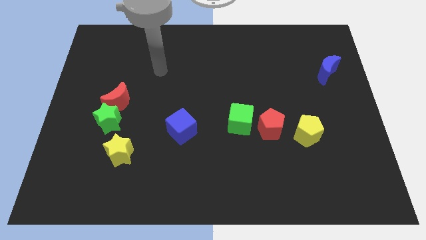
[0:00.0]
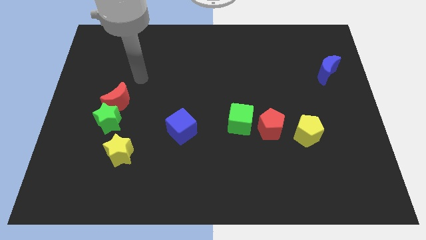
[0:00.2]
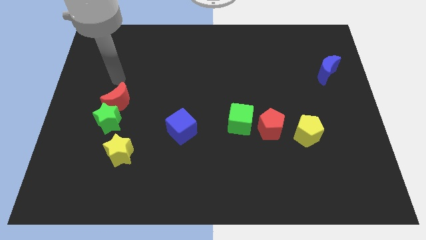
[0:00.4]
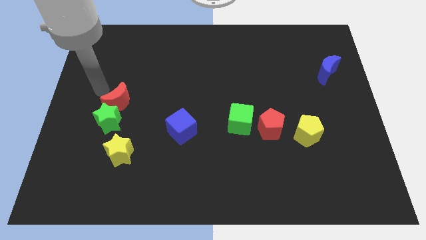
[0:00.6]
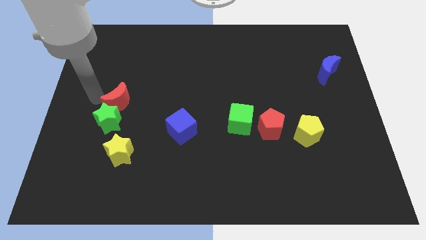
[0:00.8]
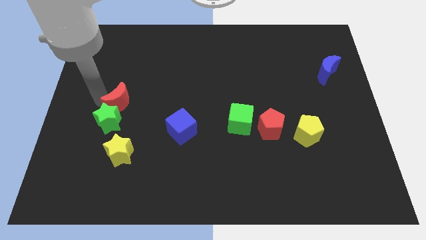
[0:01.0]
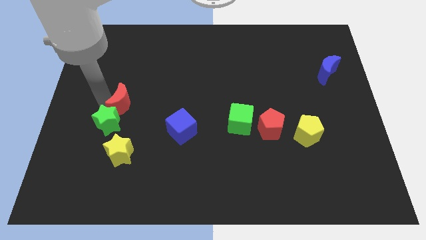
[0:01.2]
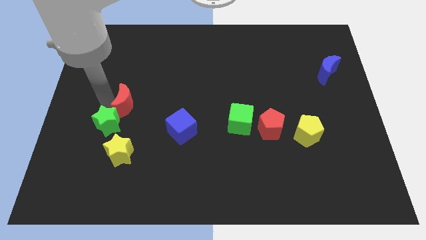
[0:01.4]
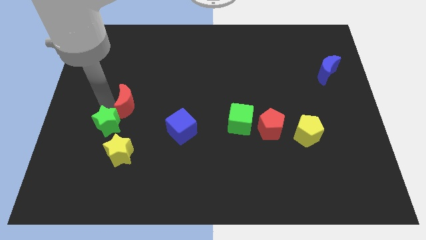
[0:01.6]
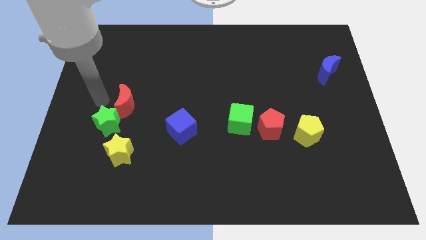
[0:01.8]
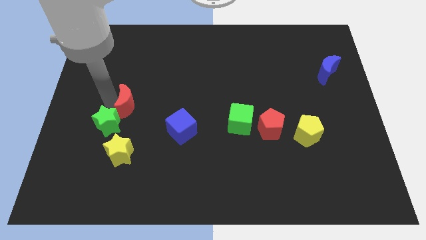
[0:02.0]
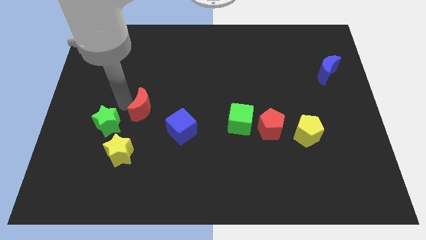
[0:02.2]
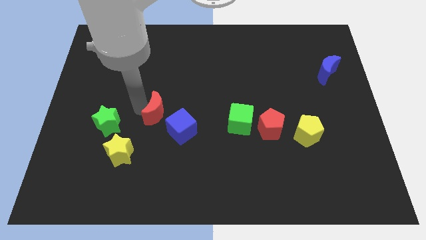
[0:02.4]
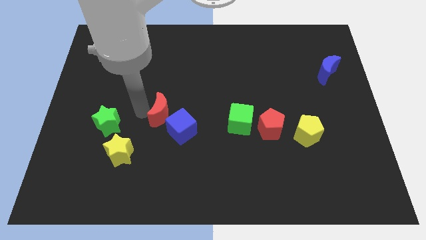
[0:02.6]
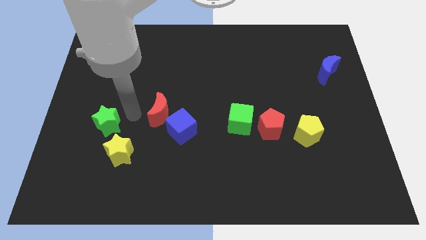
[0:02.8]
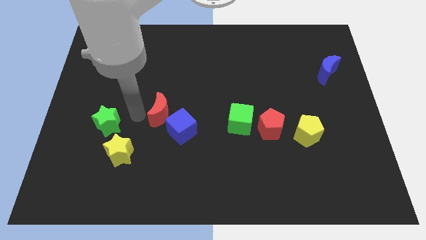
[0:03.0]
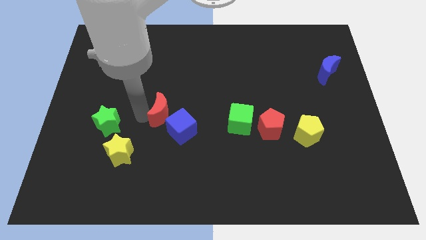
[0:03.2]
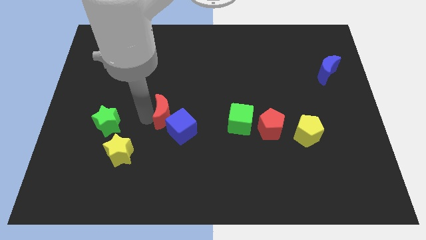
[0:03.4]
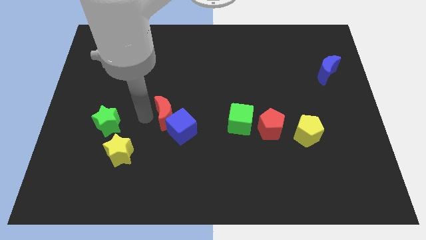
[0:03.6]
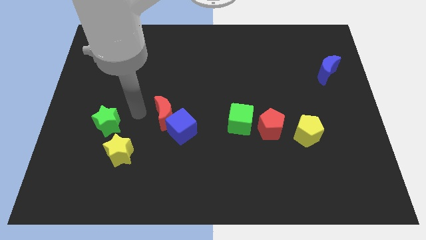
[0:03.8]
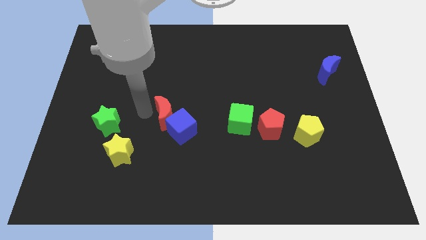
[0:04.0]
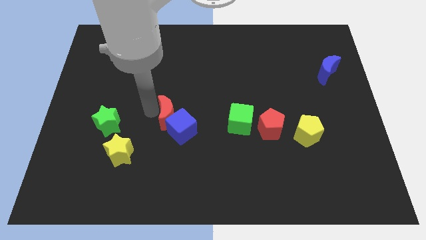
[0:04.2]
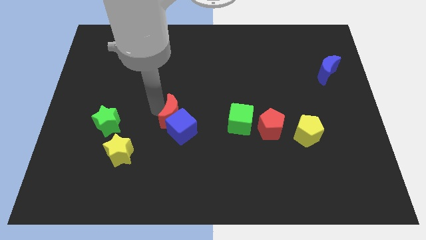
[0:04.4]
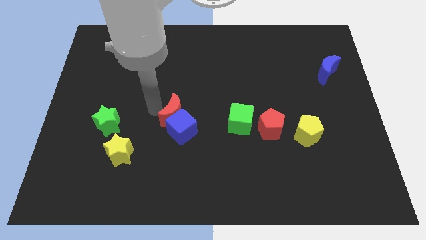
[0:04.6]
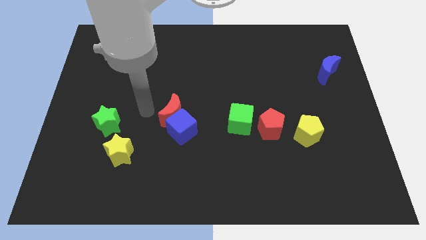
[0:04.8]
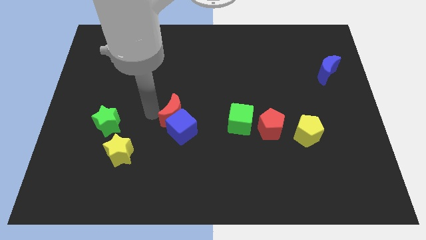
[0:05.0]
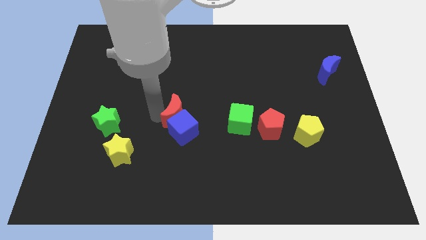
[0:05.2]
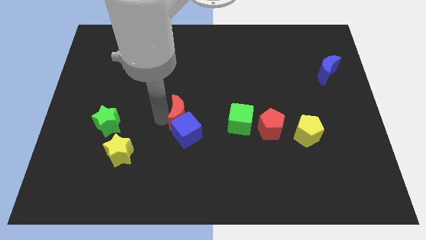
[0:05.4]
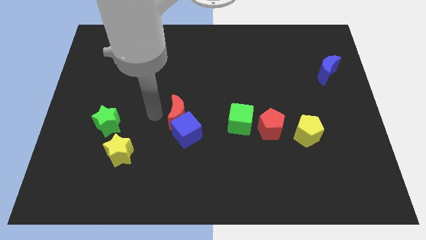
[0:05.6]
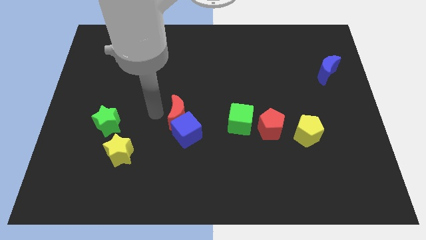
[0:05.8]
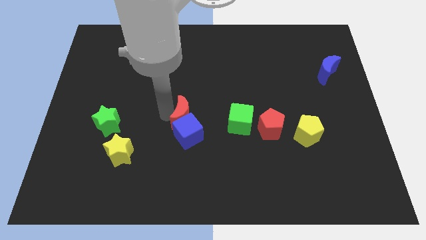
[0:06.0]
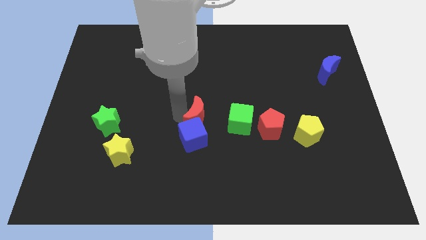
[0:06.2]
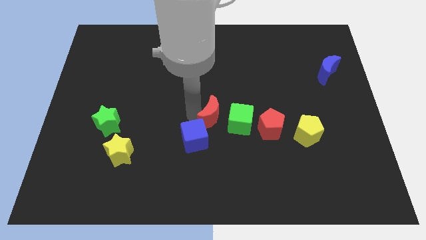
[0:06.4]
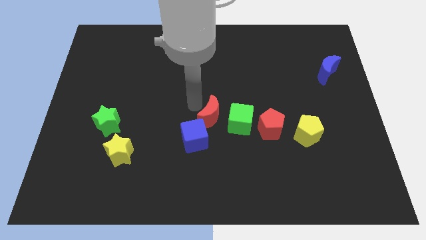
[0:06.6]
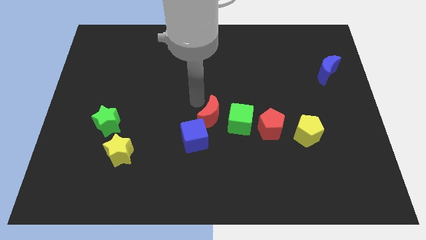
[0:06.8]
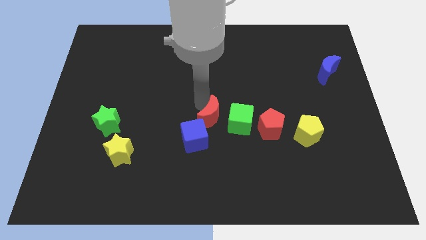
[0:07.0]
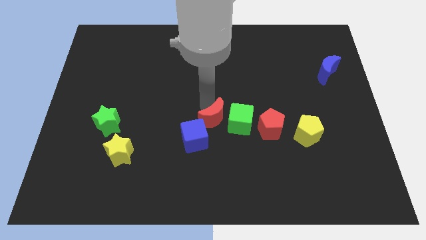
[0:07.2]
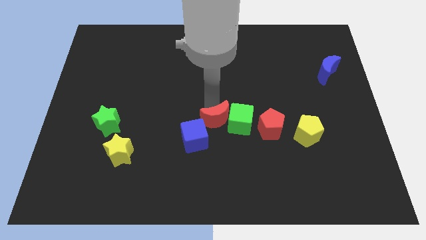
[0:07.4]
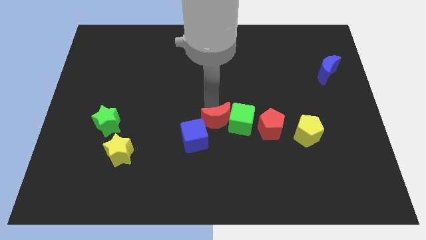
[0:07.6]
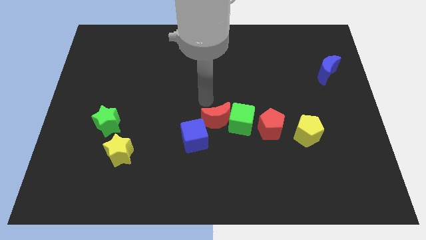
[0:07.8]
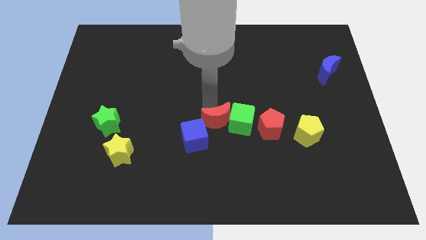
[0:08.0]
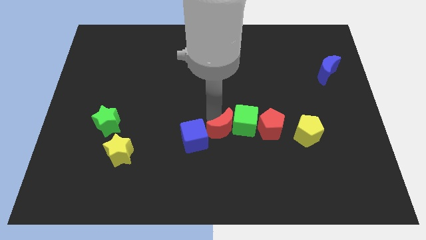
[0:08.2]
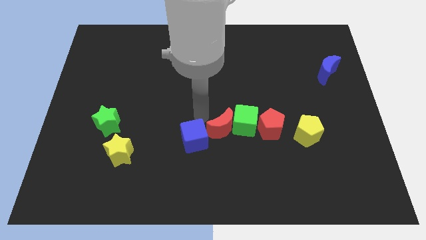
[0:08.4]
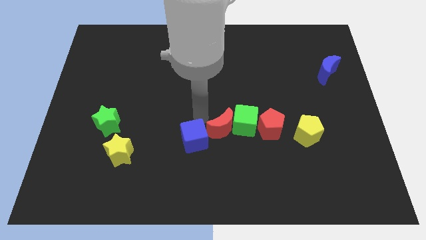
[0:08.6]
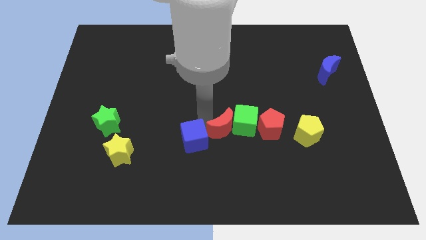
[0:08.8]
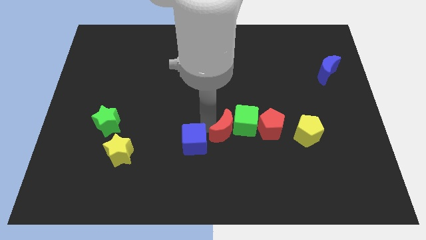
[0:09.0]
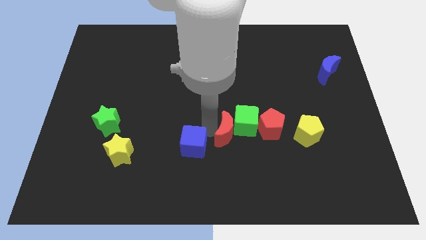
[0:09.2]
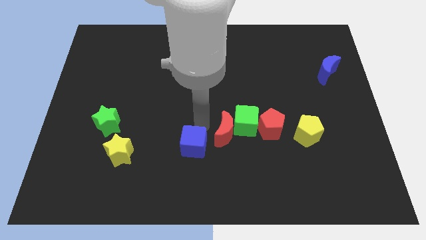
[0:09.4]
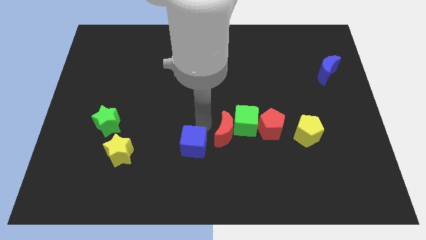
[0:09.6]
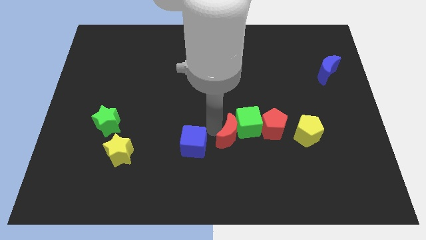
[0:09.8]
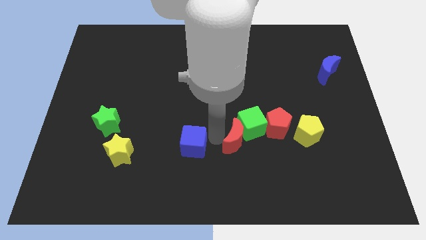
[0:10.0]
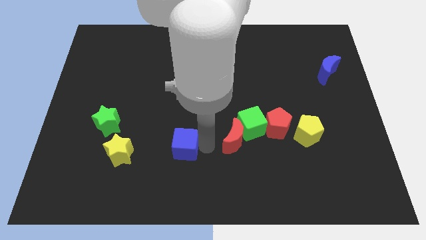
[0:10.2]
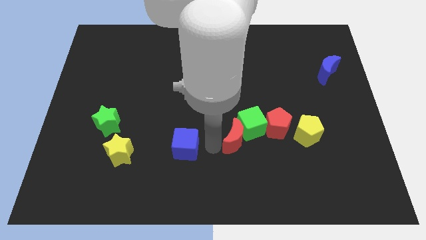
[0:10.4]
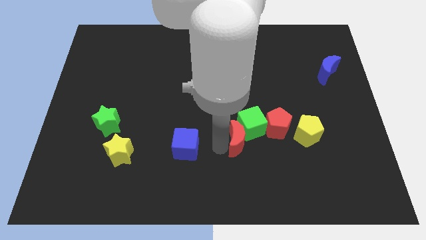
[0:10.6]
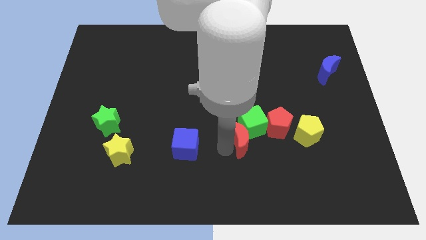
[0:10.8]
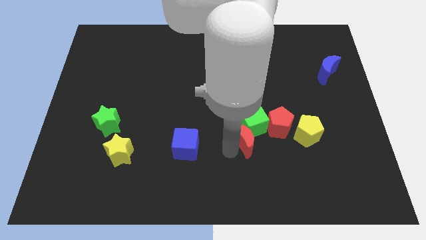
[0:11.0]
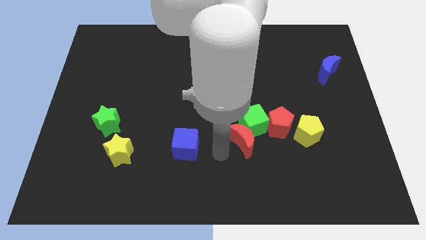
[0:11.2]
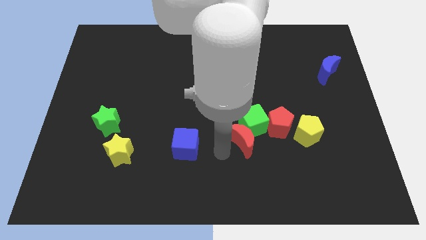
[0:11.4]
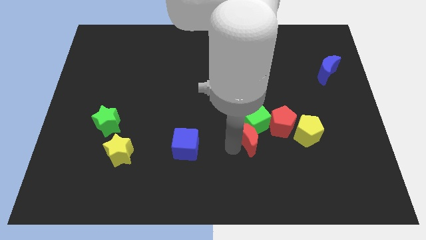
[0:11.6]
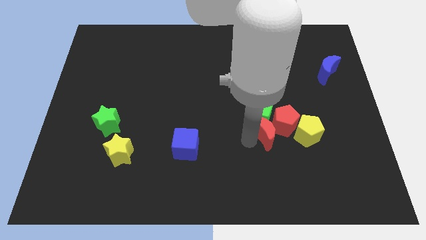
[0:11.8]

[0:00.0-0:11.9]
put the red moon towards the red pentagon

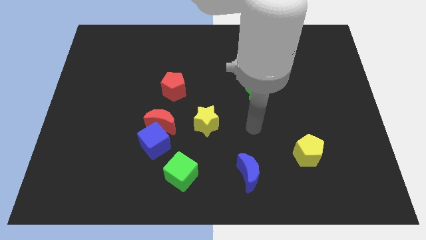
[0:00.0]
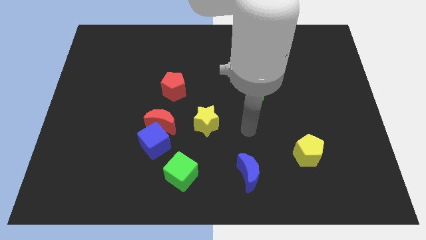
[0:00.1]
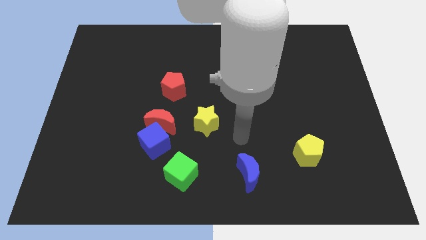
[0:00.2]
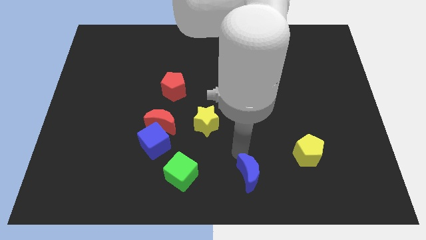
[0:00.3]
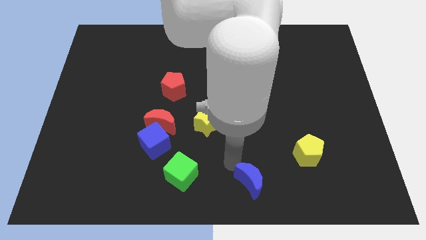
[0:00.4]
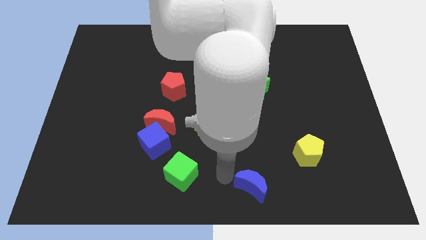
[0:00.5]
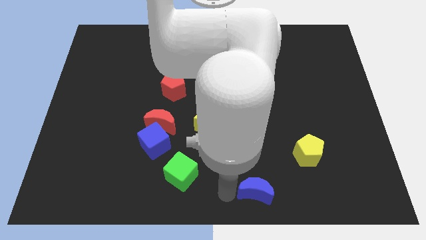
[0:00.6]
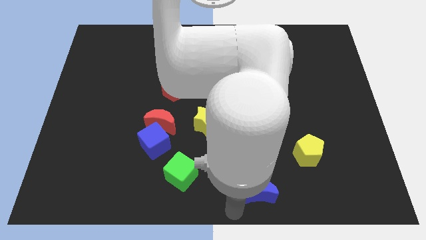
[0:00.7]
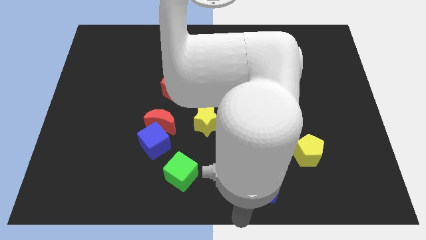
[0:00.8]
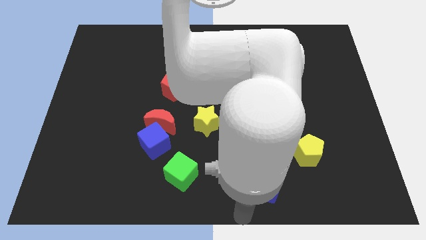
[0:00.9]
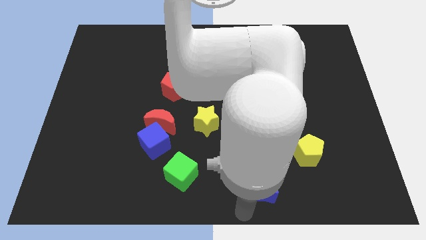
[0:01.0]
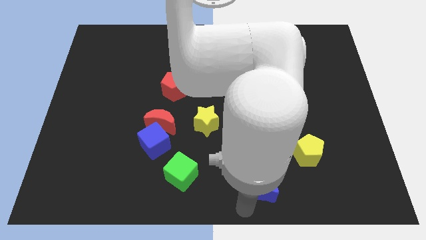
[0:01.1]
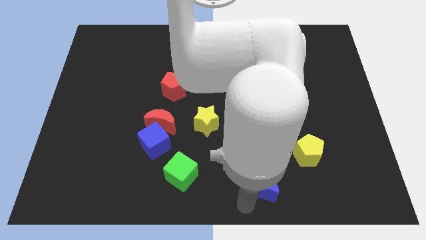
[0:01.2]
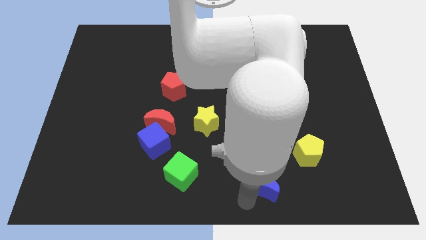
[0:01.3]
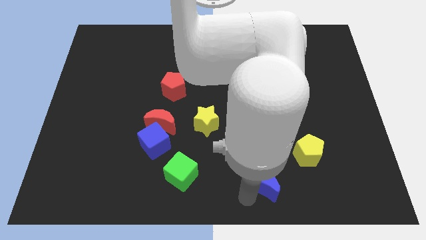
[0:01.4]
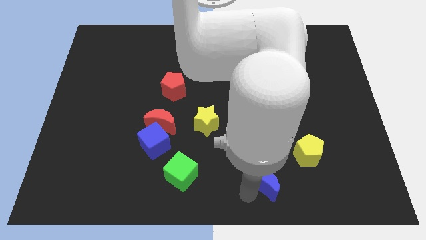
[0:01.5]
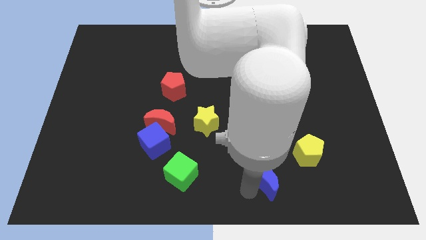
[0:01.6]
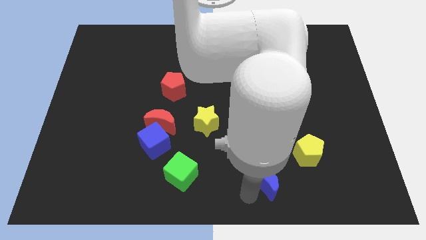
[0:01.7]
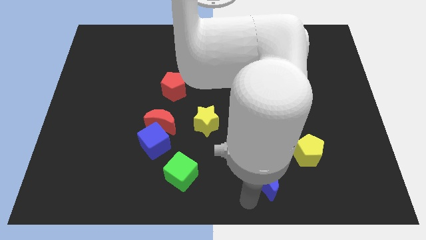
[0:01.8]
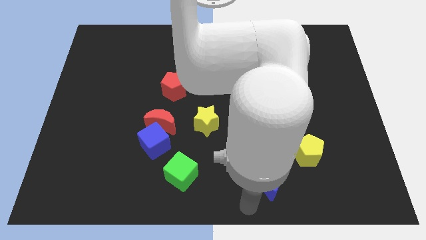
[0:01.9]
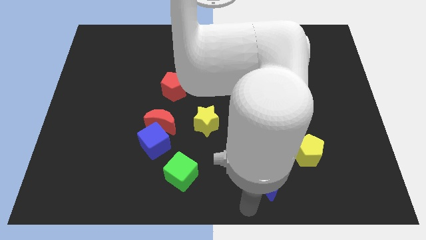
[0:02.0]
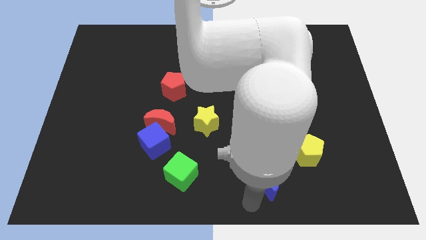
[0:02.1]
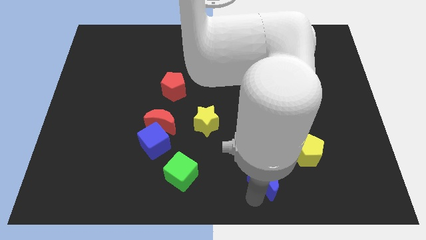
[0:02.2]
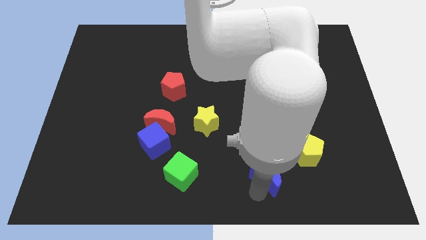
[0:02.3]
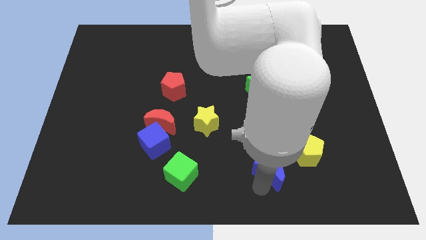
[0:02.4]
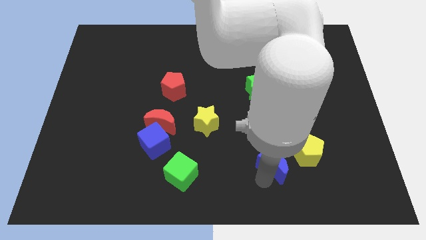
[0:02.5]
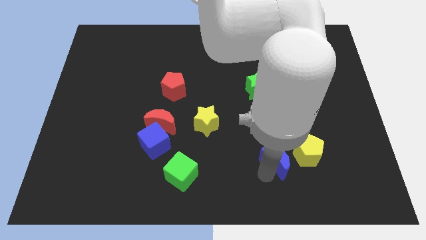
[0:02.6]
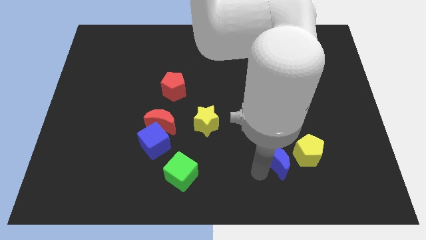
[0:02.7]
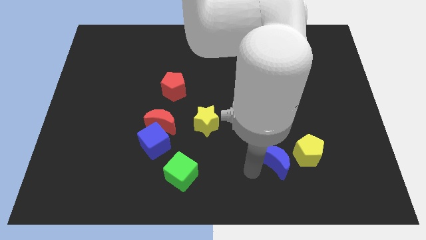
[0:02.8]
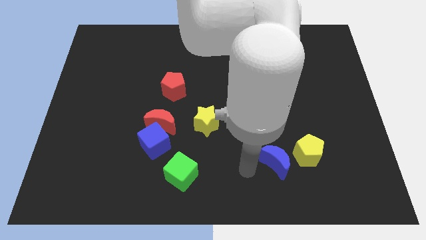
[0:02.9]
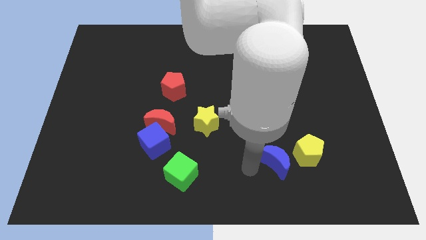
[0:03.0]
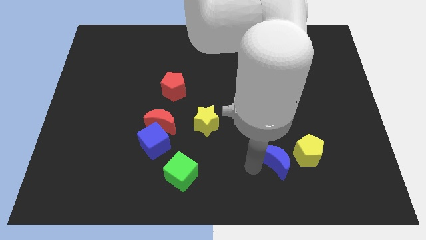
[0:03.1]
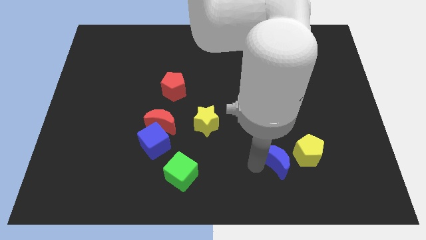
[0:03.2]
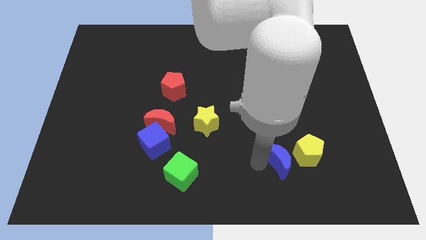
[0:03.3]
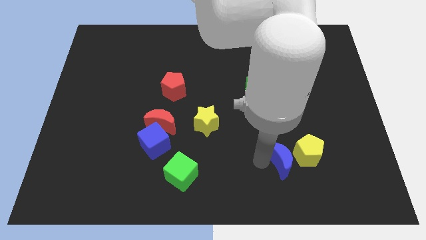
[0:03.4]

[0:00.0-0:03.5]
push the blue moon towards the yellow pentagon
